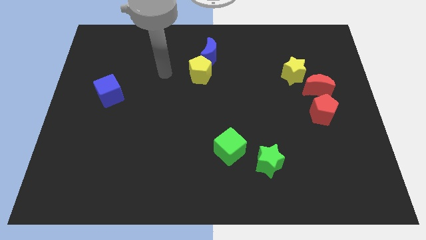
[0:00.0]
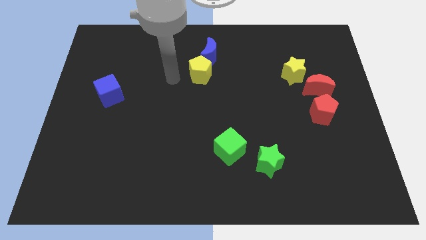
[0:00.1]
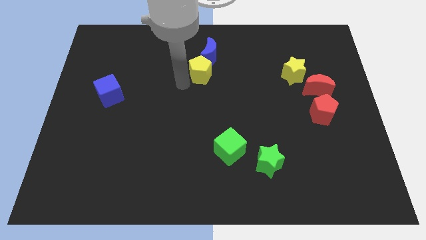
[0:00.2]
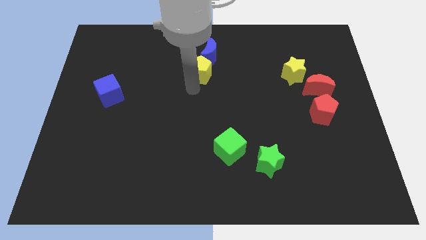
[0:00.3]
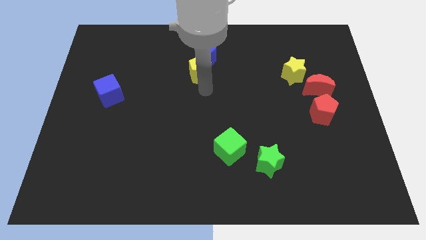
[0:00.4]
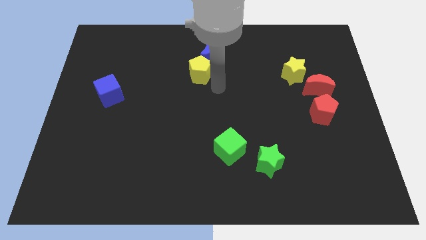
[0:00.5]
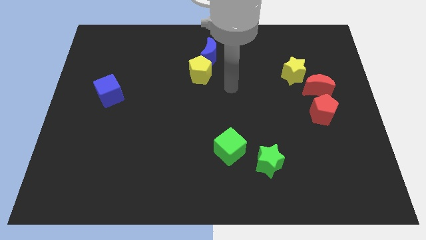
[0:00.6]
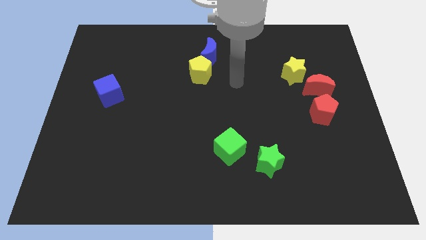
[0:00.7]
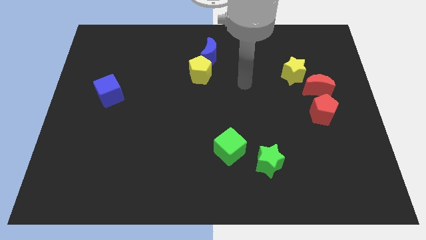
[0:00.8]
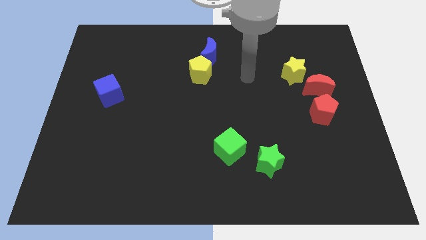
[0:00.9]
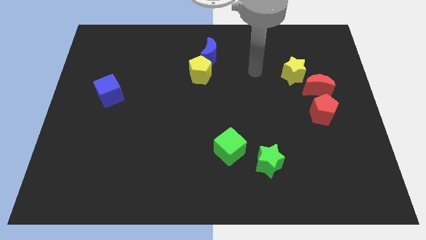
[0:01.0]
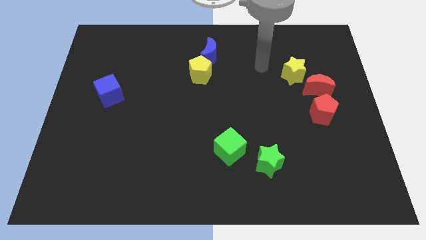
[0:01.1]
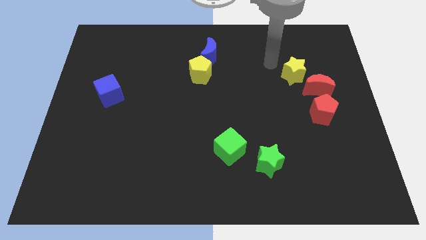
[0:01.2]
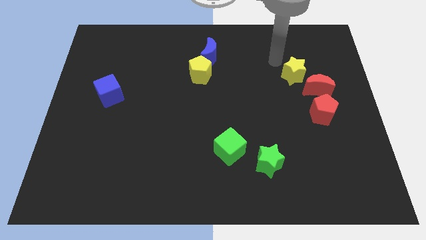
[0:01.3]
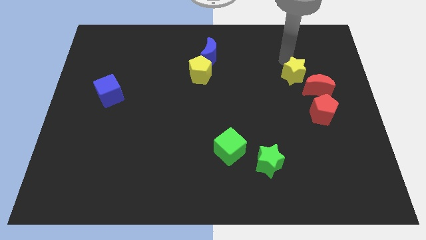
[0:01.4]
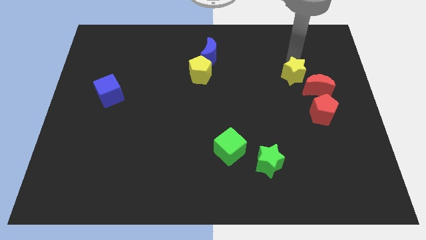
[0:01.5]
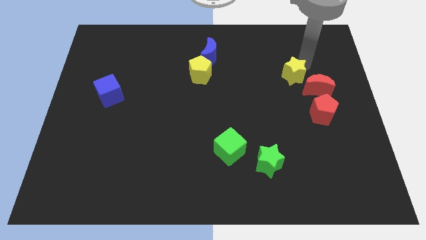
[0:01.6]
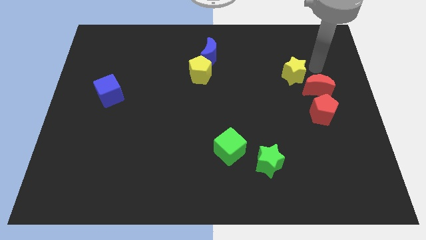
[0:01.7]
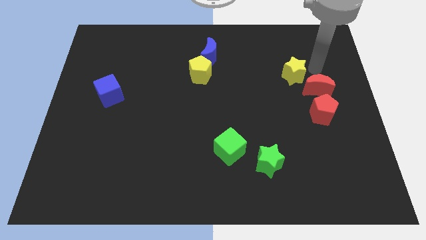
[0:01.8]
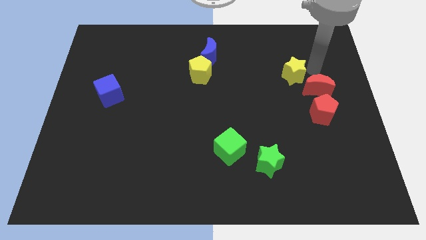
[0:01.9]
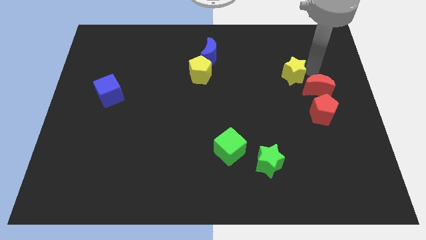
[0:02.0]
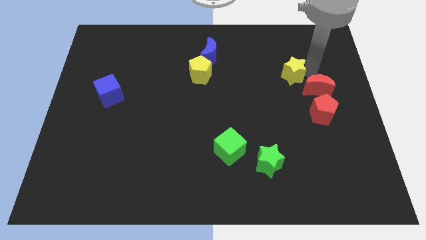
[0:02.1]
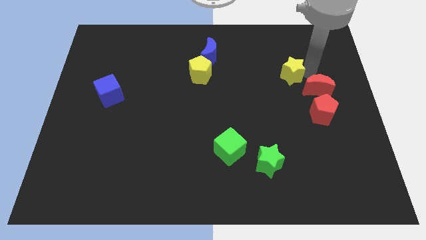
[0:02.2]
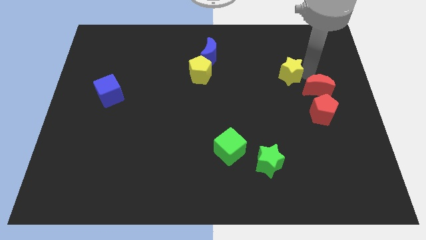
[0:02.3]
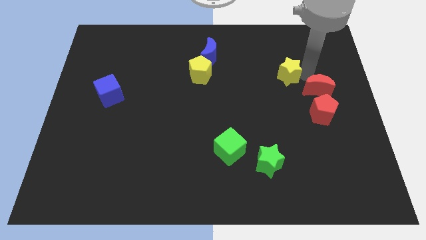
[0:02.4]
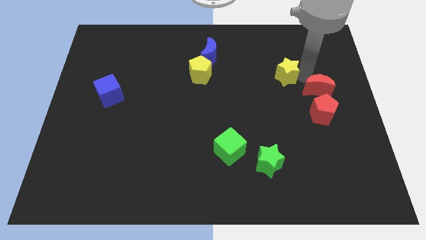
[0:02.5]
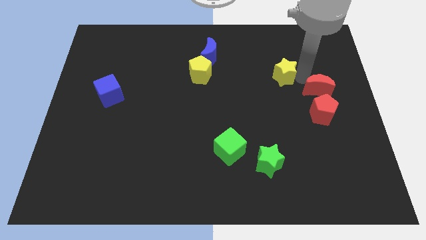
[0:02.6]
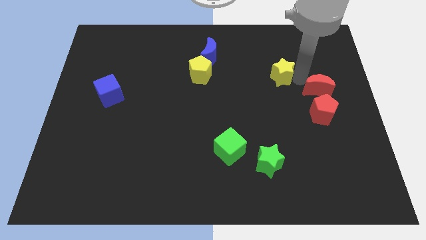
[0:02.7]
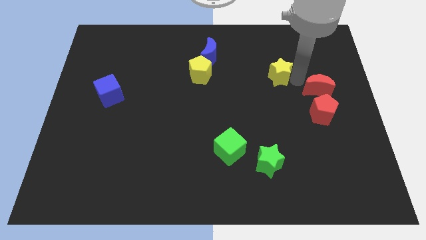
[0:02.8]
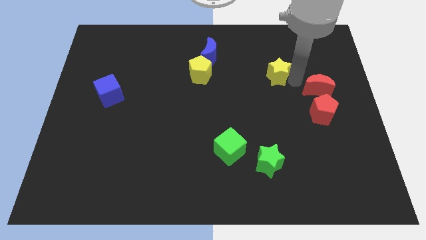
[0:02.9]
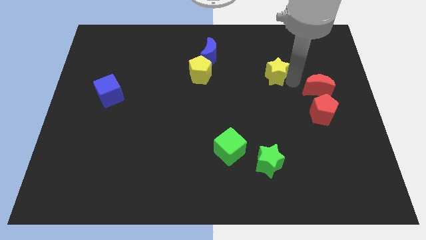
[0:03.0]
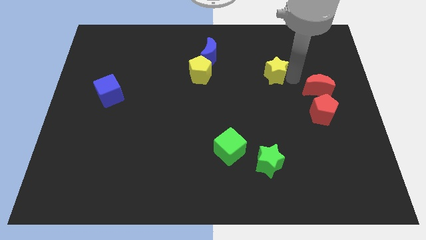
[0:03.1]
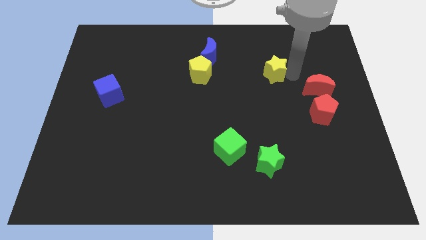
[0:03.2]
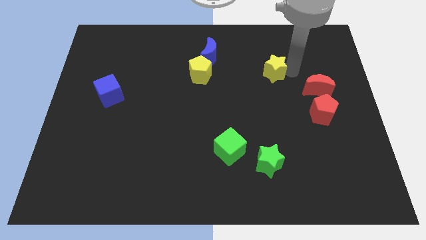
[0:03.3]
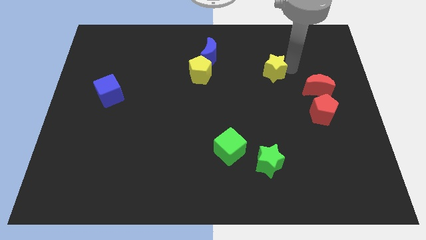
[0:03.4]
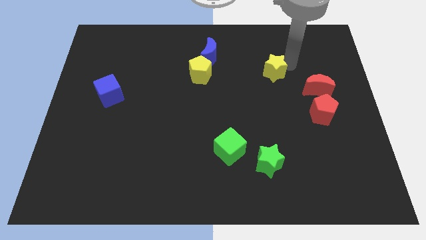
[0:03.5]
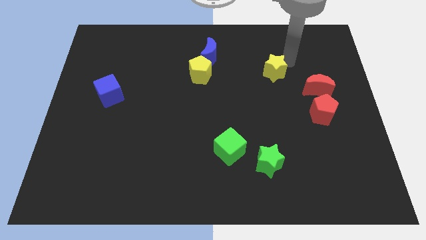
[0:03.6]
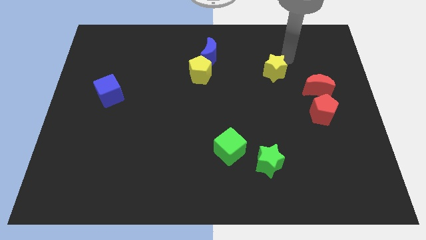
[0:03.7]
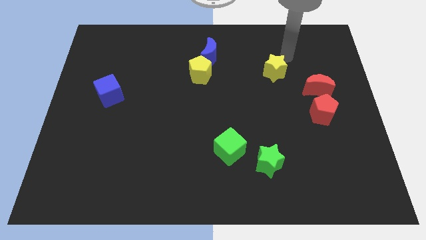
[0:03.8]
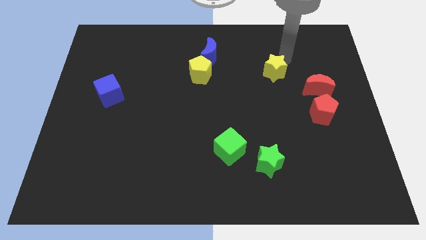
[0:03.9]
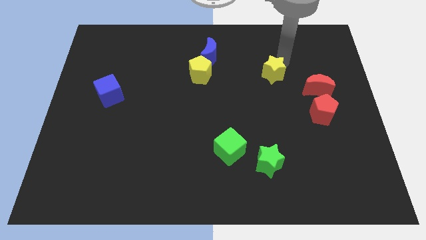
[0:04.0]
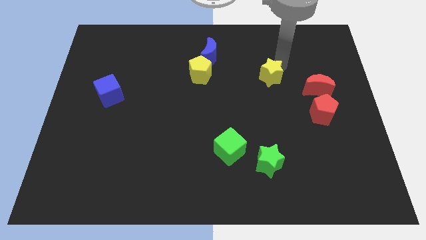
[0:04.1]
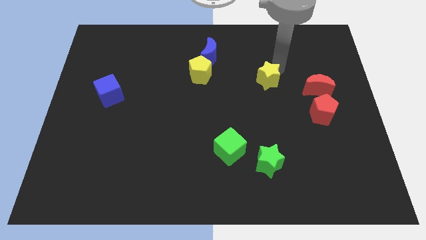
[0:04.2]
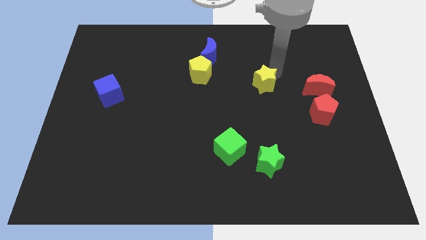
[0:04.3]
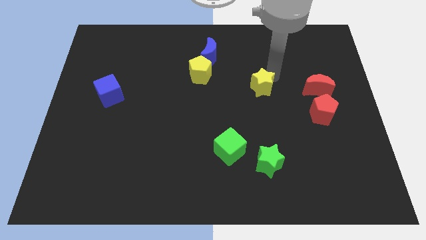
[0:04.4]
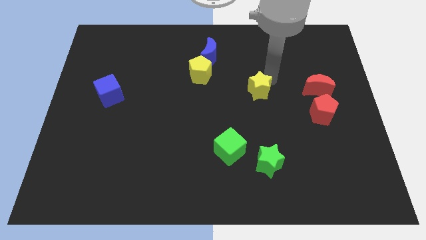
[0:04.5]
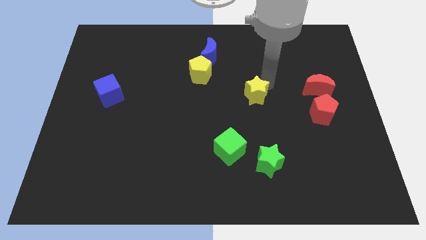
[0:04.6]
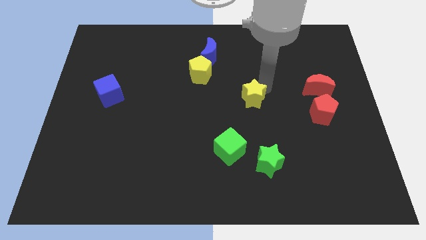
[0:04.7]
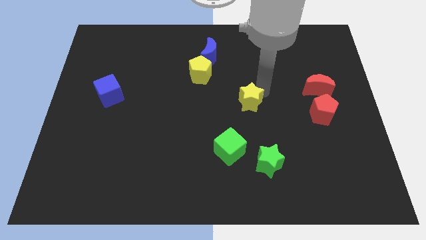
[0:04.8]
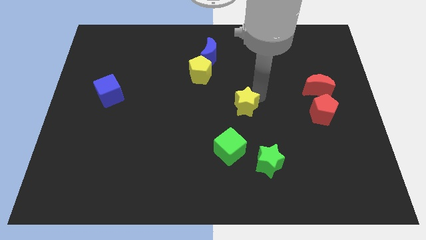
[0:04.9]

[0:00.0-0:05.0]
put the yellow star to the top side of the green cube

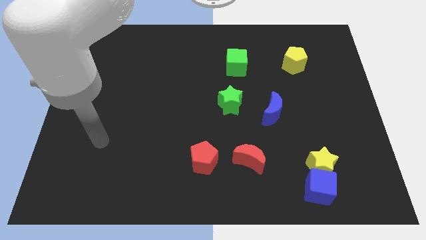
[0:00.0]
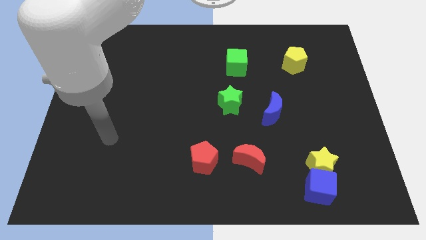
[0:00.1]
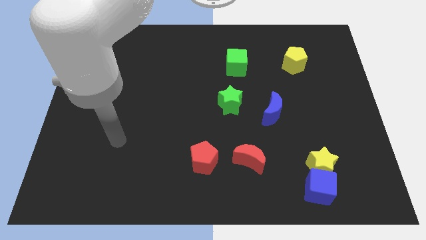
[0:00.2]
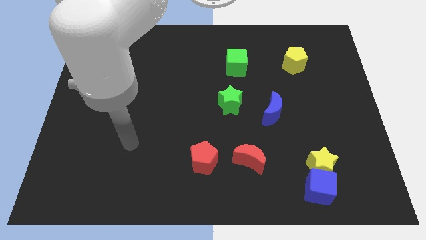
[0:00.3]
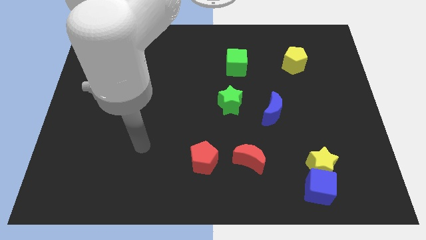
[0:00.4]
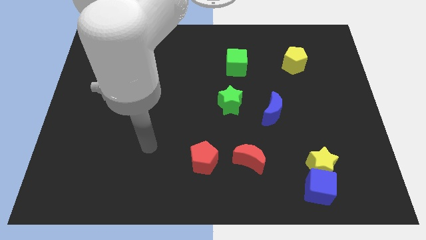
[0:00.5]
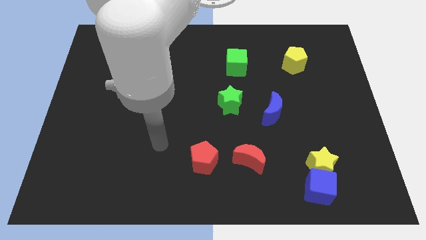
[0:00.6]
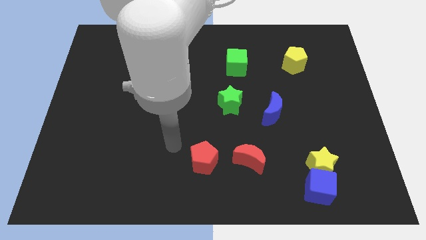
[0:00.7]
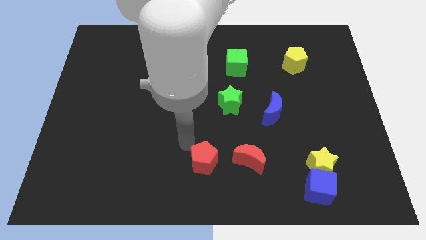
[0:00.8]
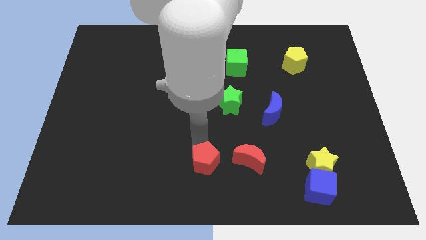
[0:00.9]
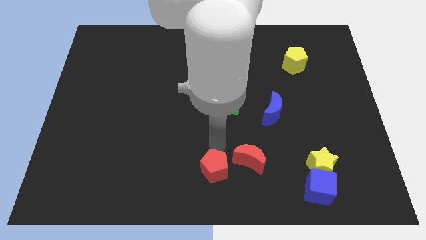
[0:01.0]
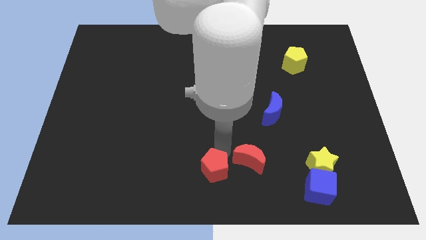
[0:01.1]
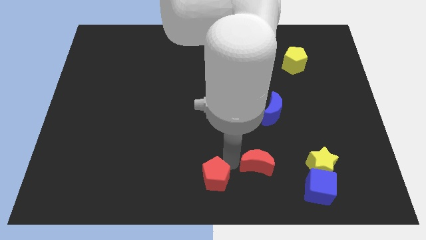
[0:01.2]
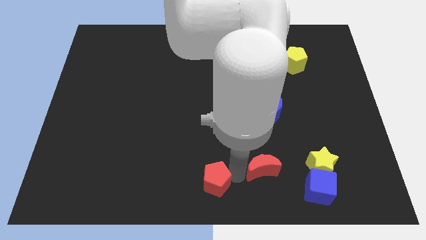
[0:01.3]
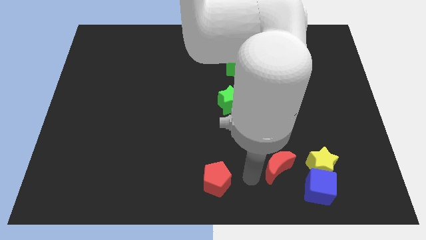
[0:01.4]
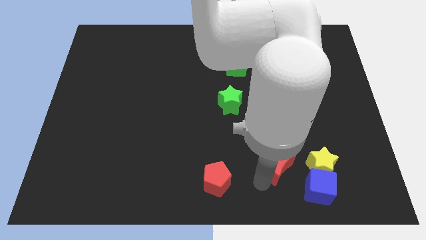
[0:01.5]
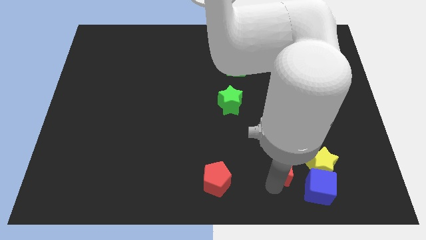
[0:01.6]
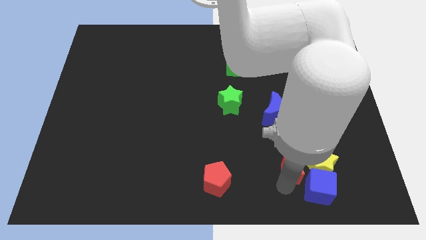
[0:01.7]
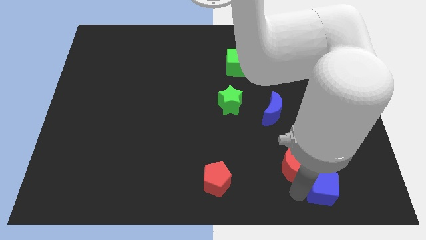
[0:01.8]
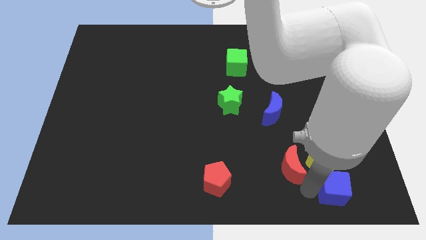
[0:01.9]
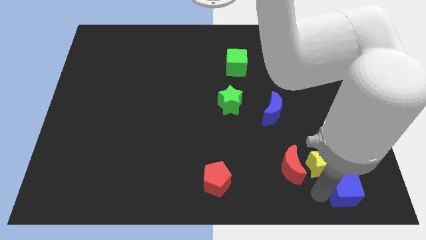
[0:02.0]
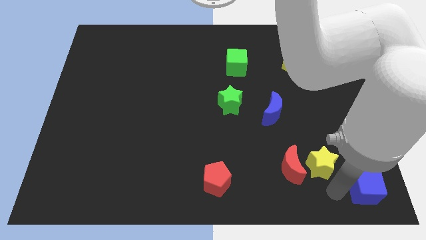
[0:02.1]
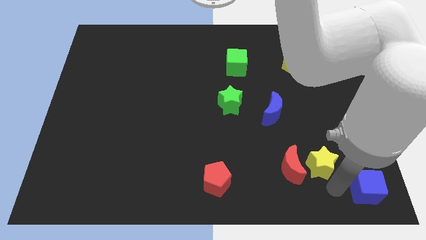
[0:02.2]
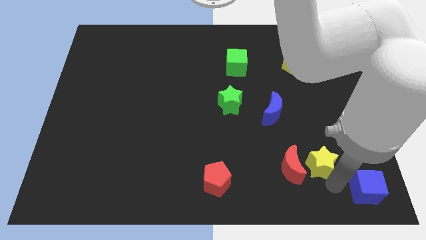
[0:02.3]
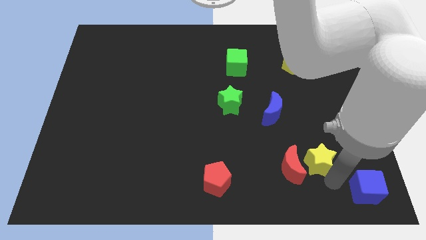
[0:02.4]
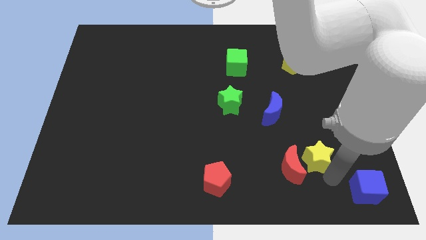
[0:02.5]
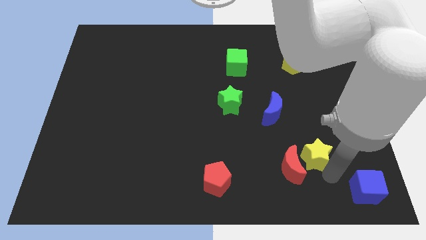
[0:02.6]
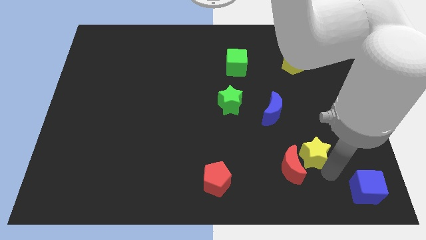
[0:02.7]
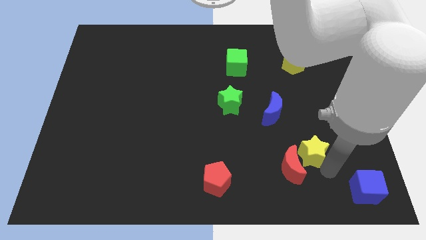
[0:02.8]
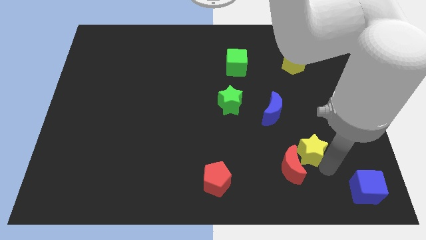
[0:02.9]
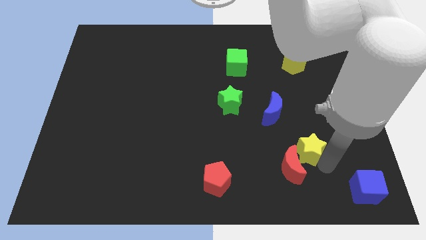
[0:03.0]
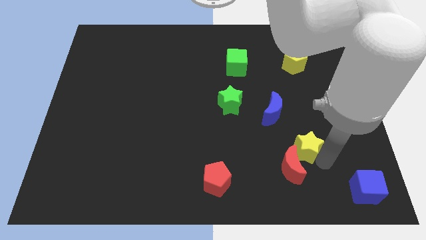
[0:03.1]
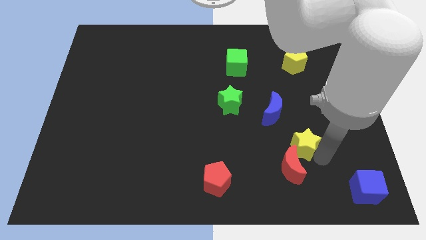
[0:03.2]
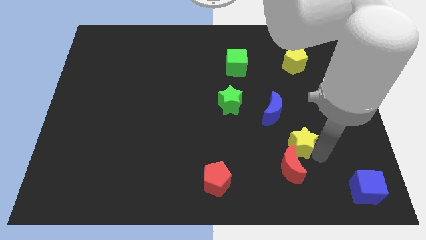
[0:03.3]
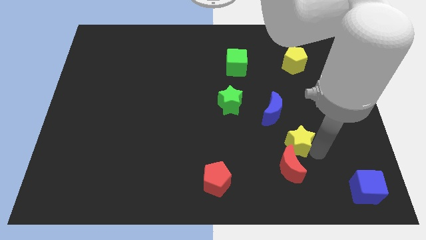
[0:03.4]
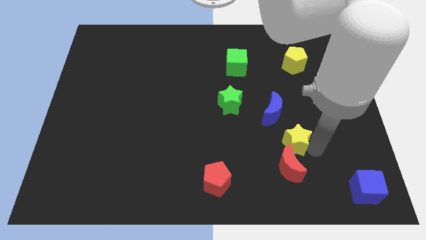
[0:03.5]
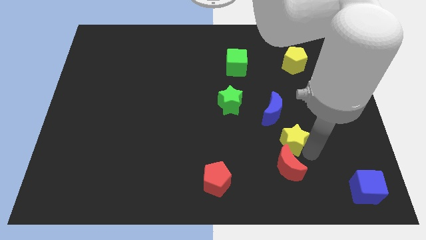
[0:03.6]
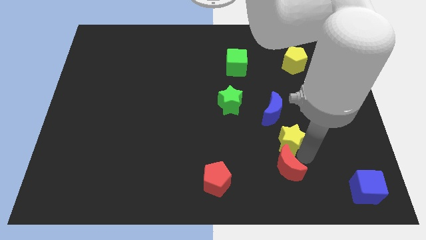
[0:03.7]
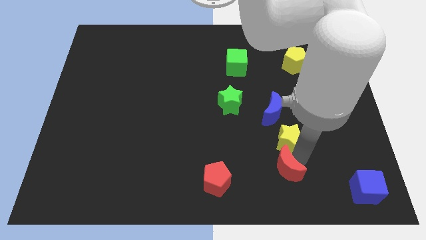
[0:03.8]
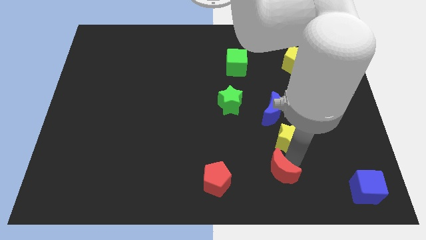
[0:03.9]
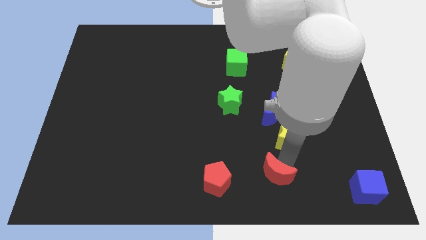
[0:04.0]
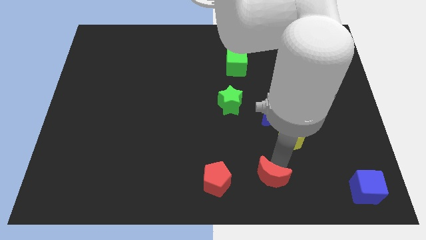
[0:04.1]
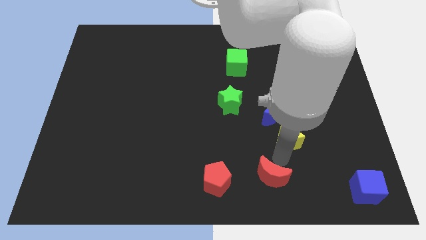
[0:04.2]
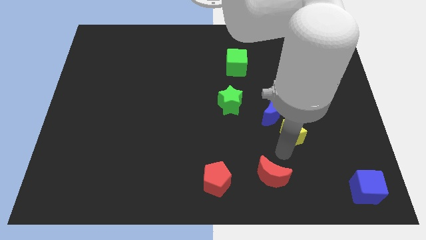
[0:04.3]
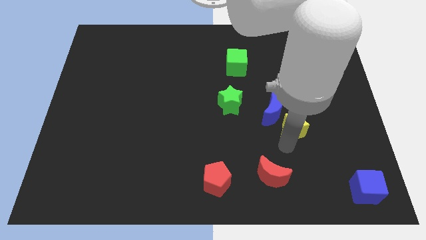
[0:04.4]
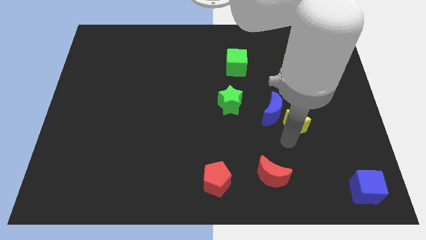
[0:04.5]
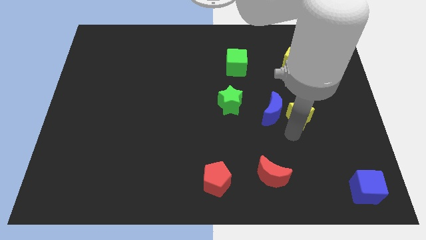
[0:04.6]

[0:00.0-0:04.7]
push the yellow star diagonally up and to the right of the blue moon
